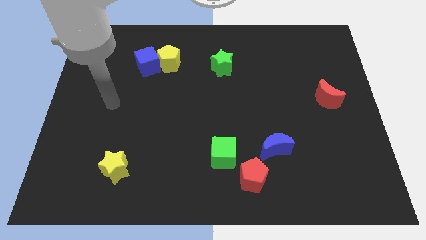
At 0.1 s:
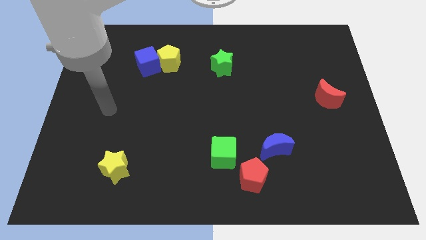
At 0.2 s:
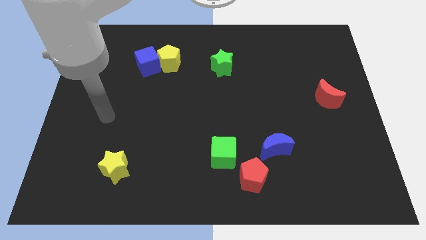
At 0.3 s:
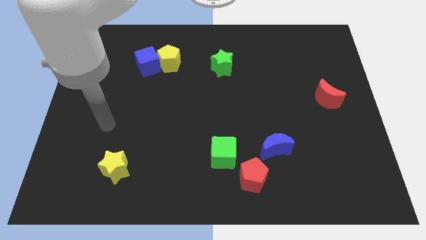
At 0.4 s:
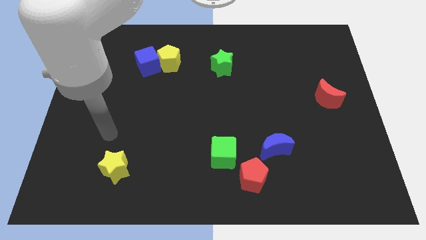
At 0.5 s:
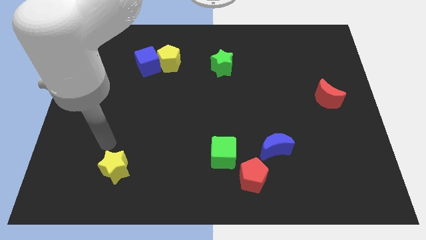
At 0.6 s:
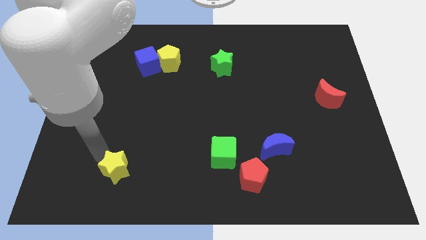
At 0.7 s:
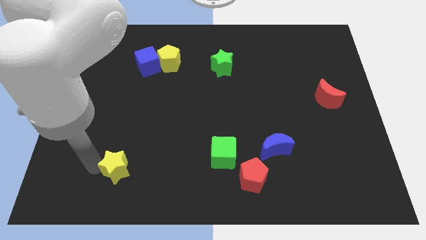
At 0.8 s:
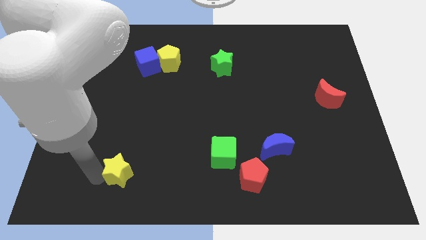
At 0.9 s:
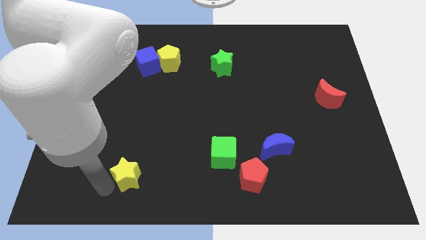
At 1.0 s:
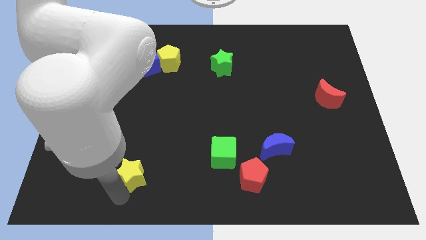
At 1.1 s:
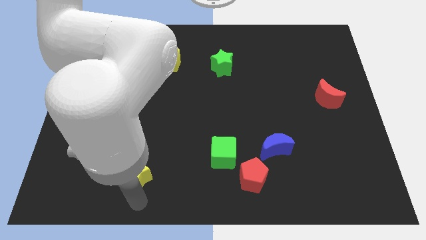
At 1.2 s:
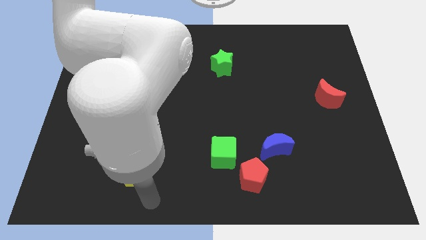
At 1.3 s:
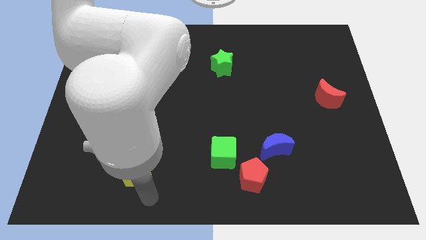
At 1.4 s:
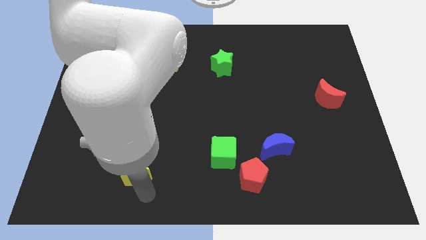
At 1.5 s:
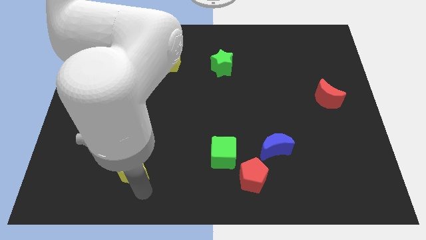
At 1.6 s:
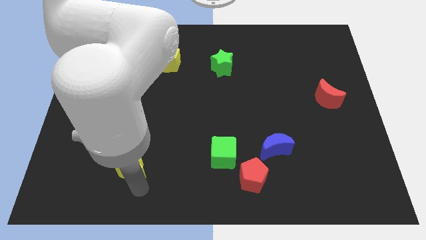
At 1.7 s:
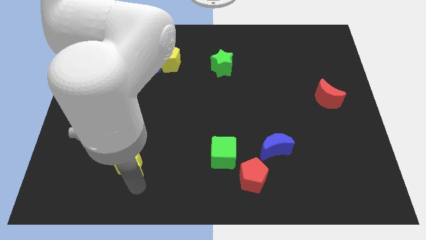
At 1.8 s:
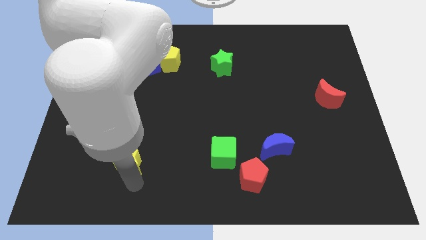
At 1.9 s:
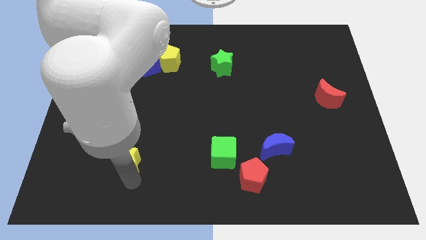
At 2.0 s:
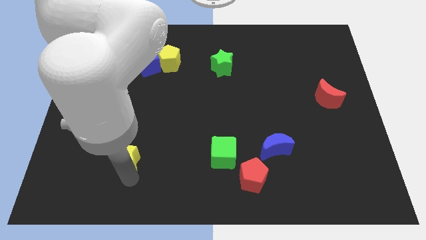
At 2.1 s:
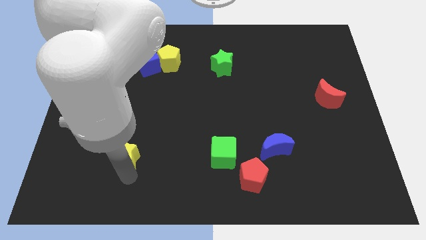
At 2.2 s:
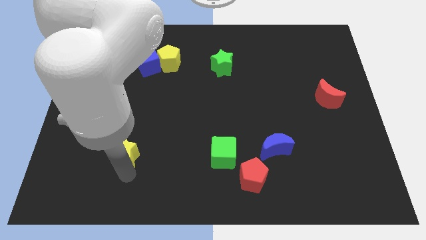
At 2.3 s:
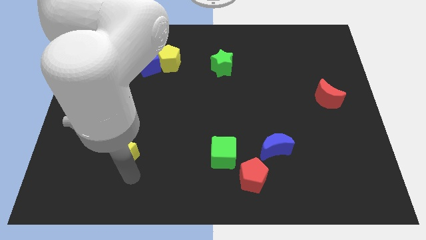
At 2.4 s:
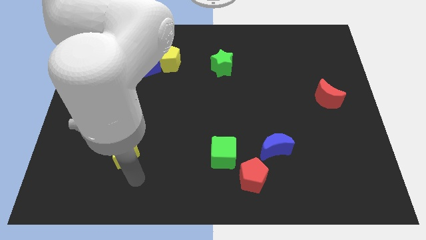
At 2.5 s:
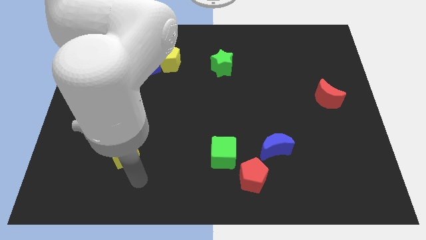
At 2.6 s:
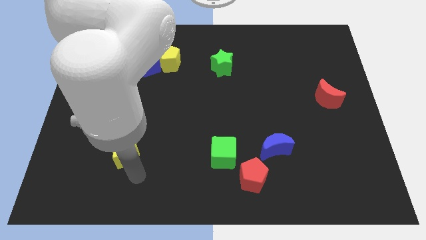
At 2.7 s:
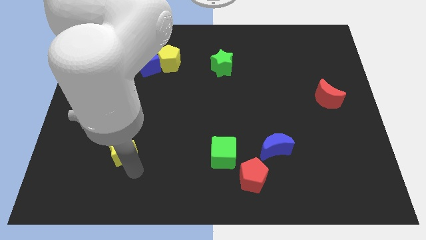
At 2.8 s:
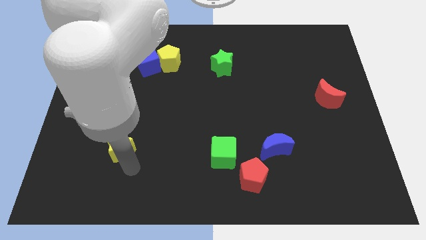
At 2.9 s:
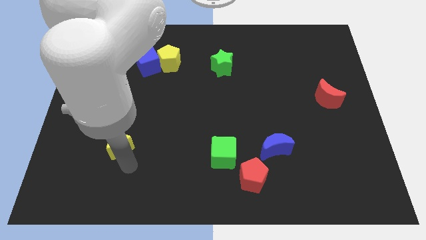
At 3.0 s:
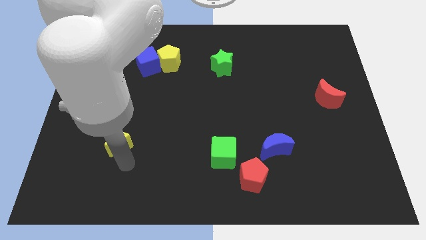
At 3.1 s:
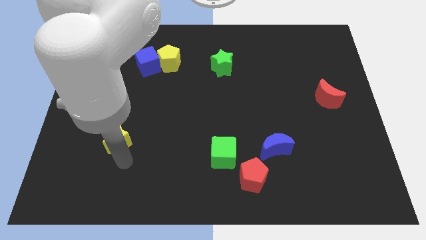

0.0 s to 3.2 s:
move the yellow star slightly upwards

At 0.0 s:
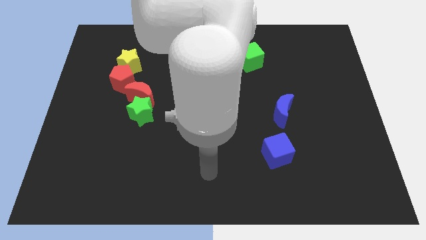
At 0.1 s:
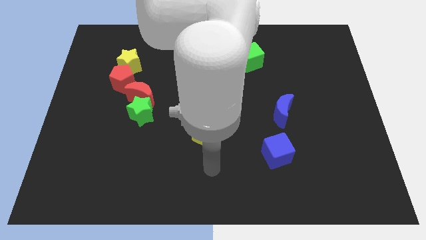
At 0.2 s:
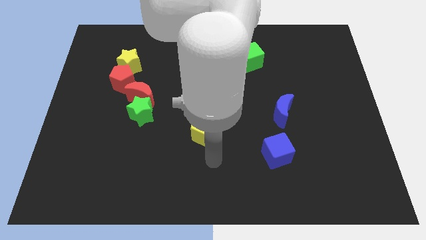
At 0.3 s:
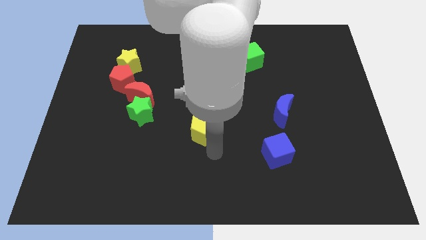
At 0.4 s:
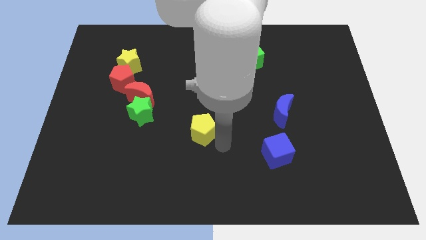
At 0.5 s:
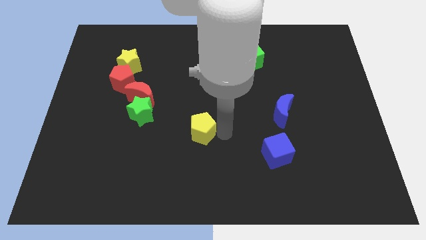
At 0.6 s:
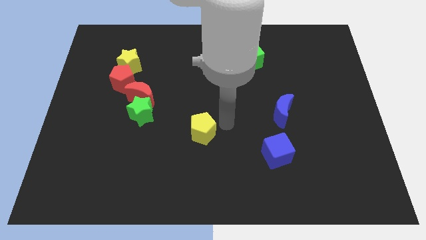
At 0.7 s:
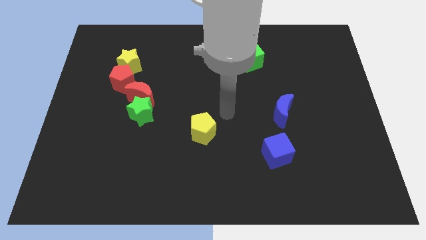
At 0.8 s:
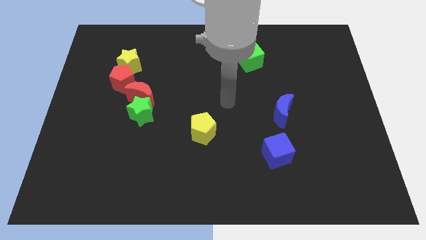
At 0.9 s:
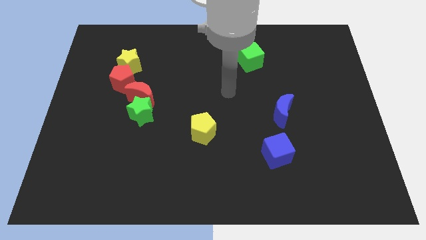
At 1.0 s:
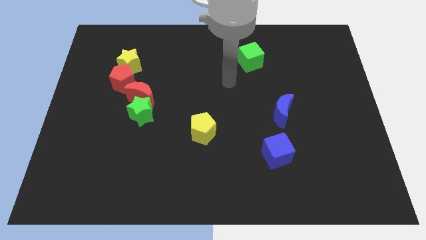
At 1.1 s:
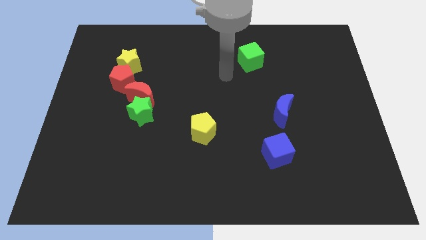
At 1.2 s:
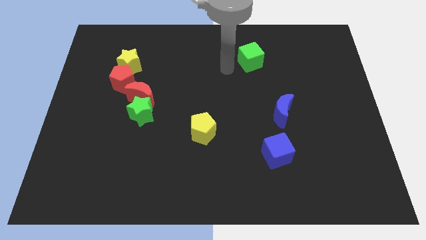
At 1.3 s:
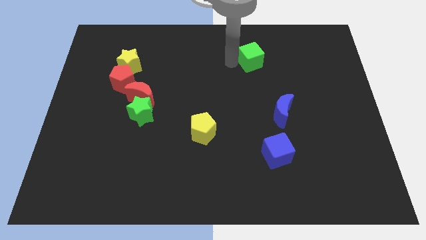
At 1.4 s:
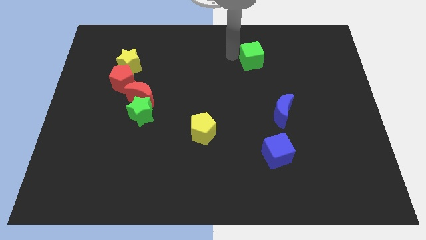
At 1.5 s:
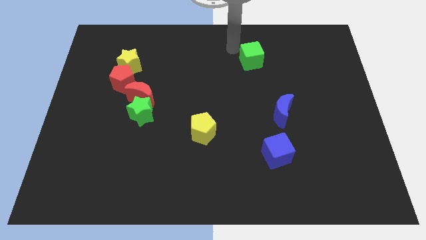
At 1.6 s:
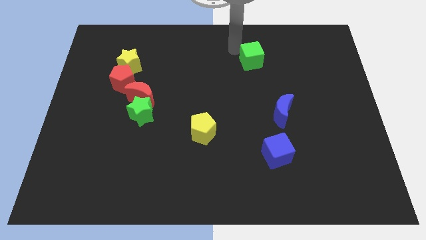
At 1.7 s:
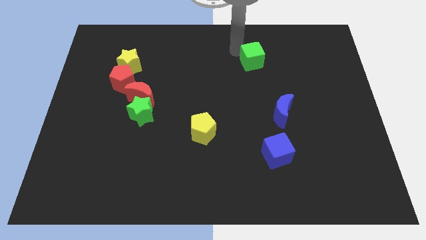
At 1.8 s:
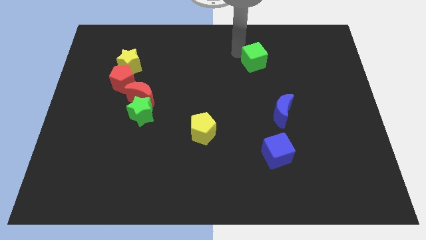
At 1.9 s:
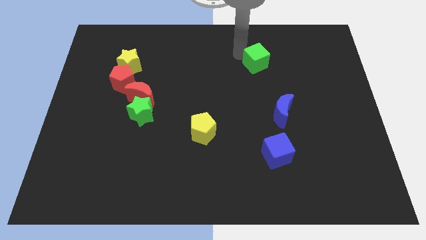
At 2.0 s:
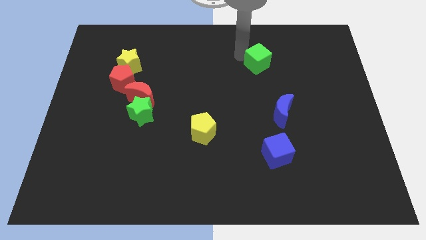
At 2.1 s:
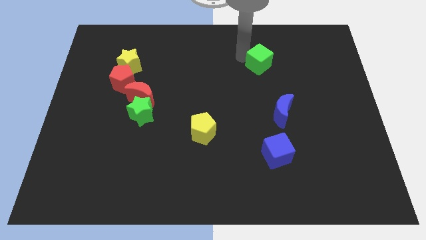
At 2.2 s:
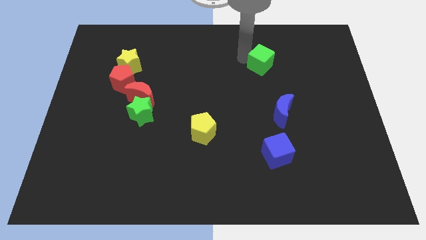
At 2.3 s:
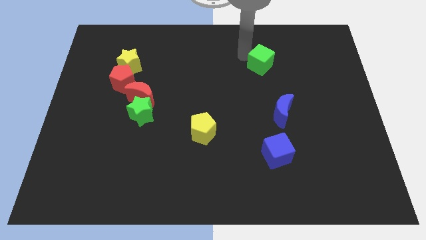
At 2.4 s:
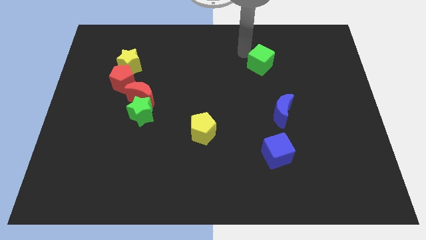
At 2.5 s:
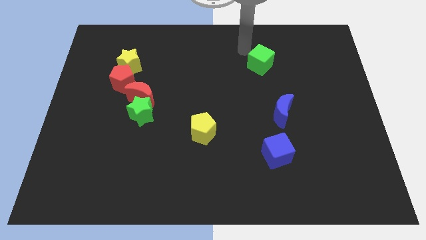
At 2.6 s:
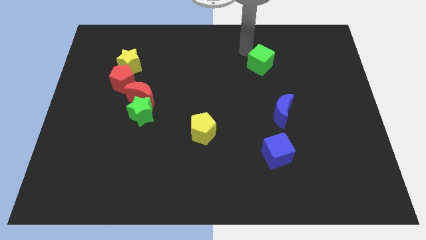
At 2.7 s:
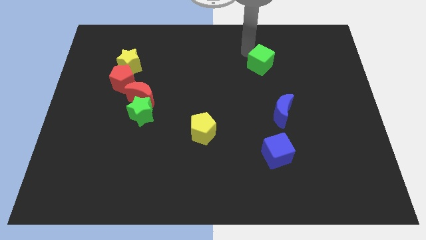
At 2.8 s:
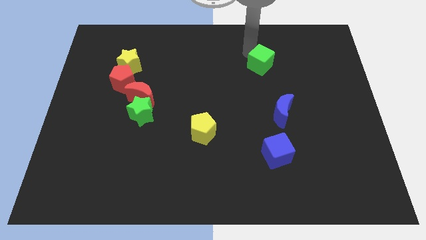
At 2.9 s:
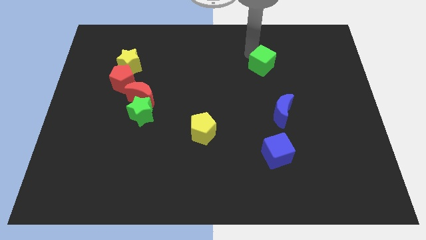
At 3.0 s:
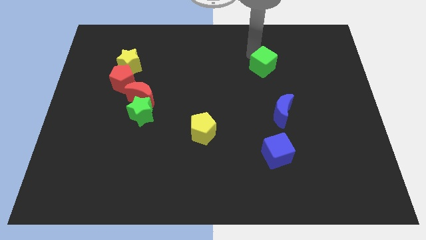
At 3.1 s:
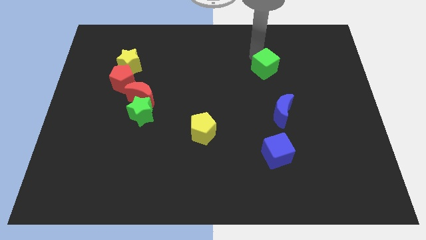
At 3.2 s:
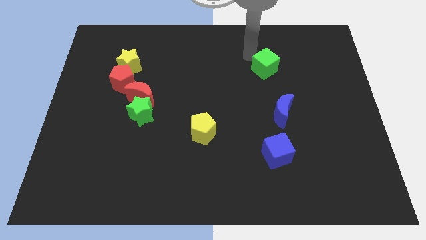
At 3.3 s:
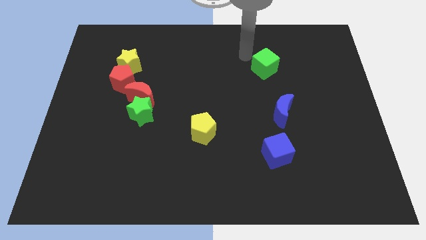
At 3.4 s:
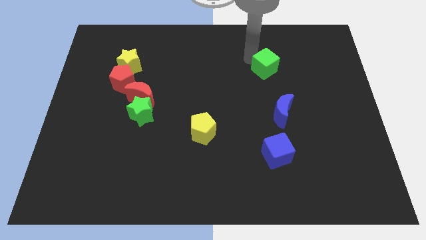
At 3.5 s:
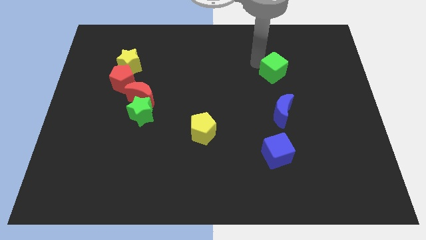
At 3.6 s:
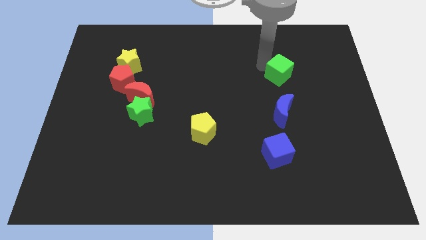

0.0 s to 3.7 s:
slightly move the green cube downwards and right diagonally

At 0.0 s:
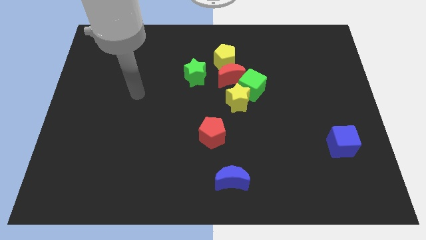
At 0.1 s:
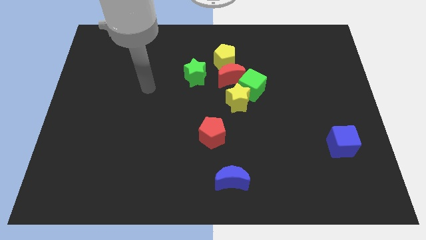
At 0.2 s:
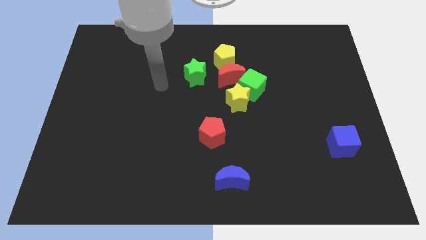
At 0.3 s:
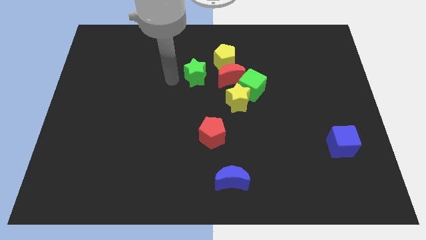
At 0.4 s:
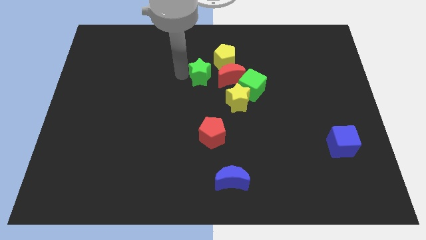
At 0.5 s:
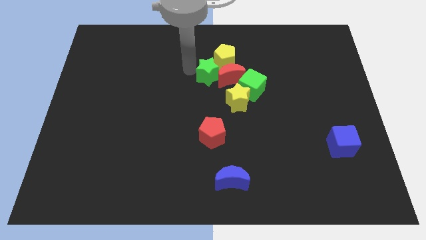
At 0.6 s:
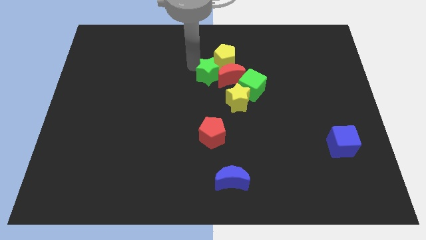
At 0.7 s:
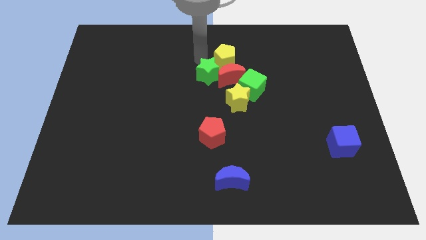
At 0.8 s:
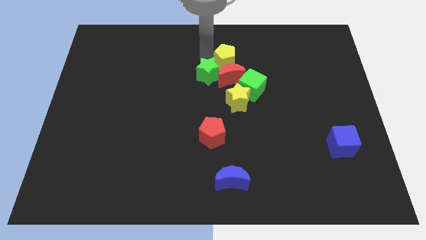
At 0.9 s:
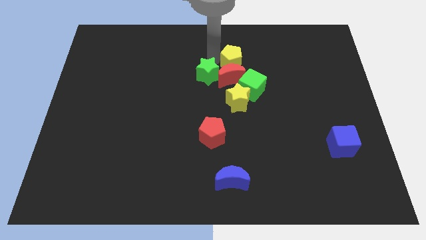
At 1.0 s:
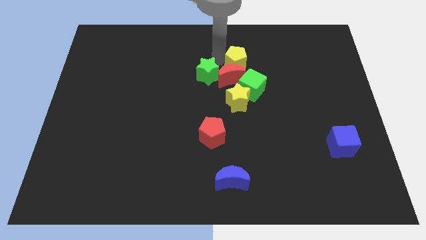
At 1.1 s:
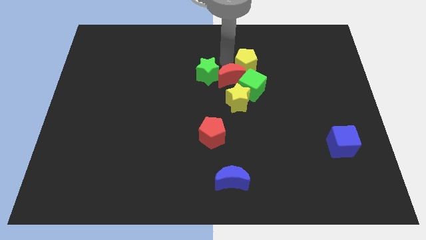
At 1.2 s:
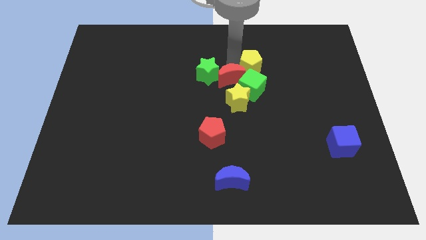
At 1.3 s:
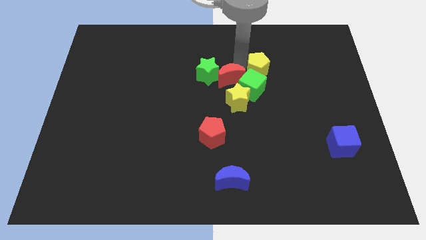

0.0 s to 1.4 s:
slightly push the yellow pentagon right
